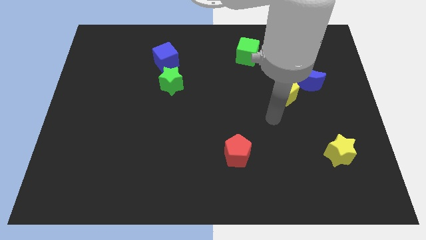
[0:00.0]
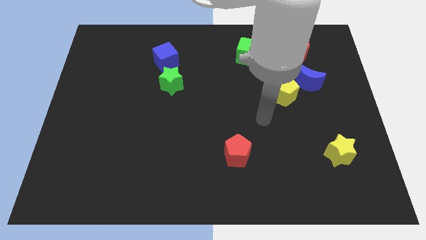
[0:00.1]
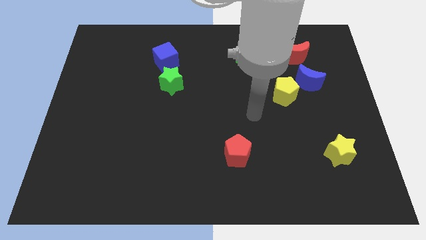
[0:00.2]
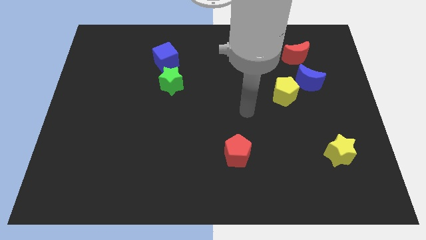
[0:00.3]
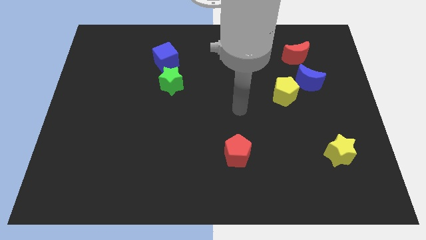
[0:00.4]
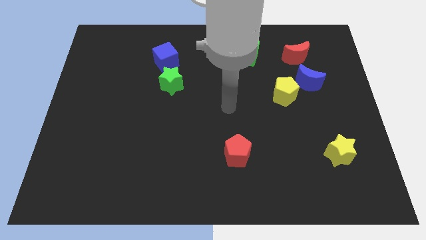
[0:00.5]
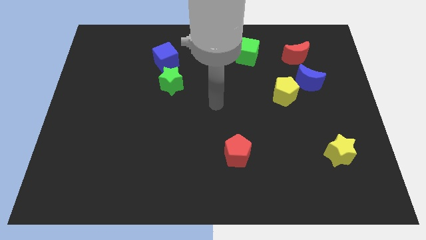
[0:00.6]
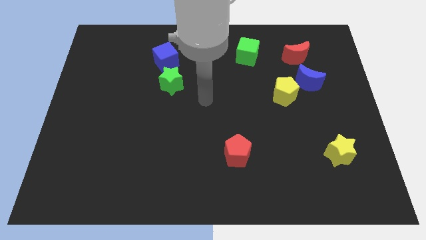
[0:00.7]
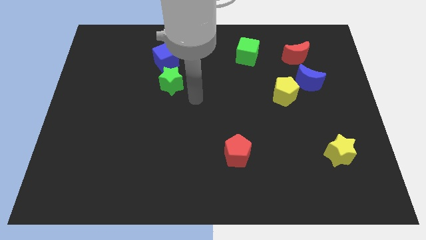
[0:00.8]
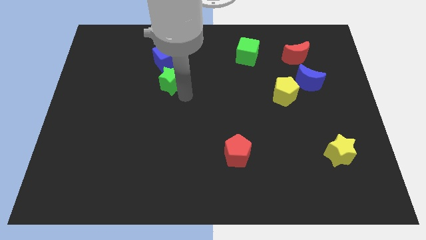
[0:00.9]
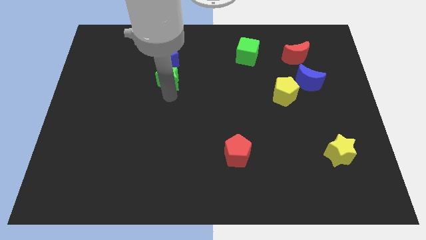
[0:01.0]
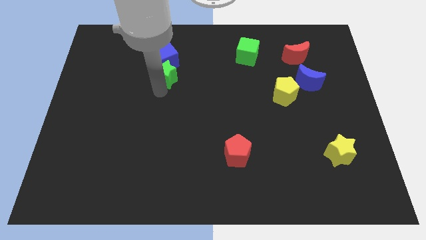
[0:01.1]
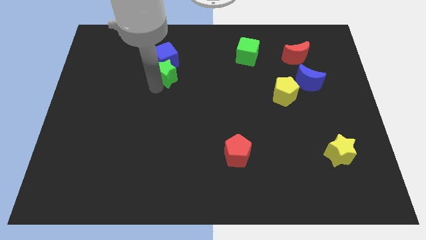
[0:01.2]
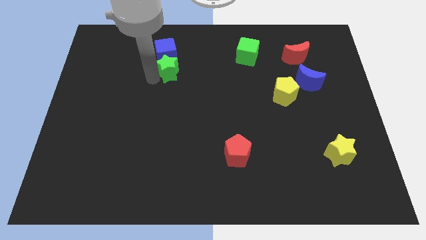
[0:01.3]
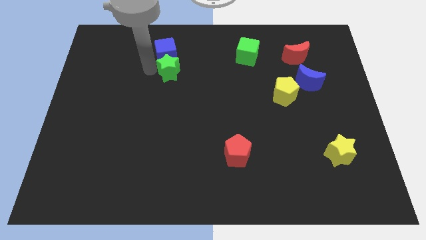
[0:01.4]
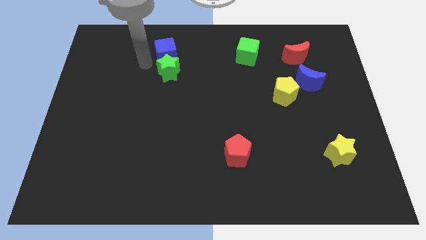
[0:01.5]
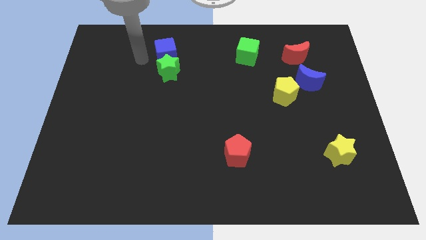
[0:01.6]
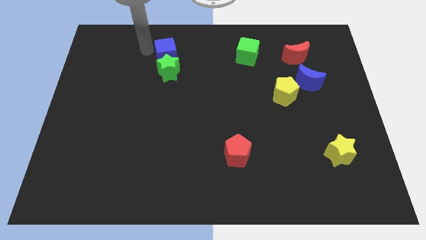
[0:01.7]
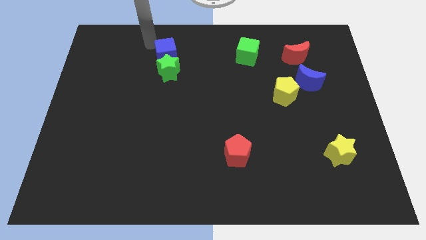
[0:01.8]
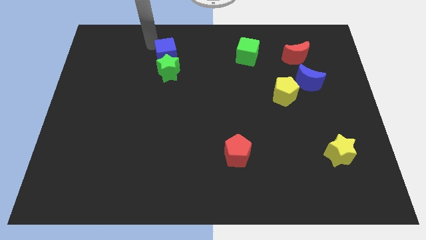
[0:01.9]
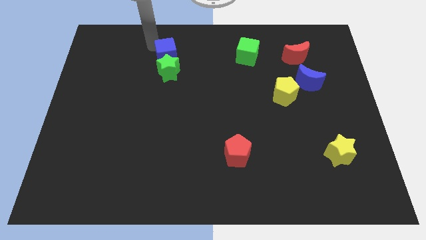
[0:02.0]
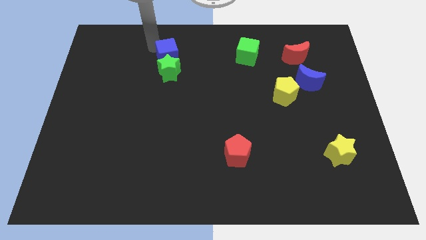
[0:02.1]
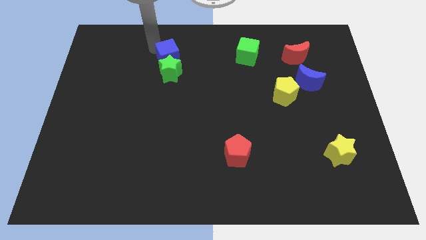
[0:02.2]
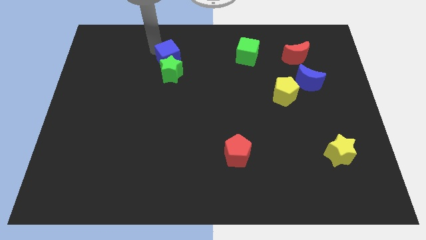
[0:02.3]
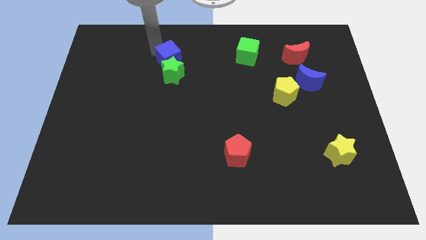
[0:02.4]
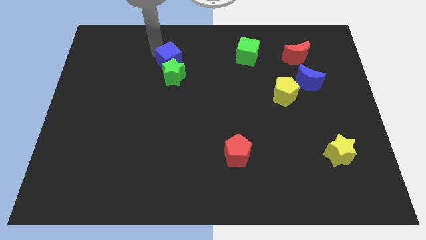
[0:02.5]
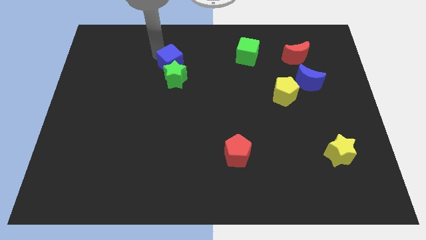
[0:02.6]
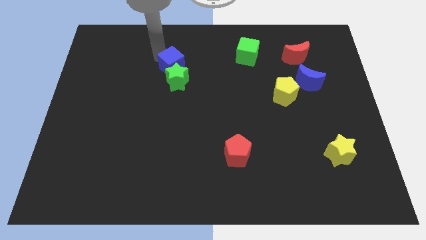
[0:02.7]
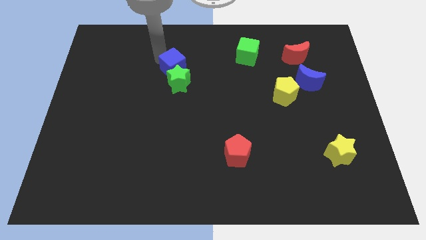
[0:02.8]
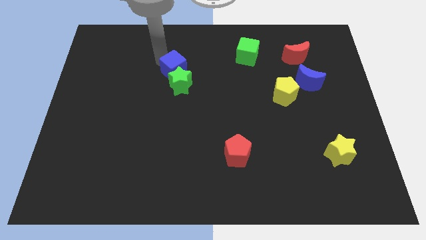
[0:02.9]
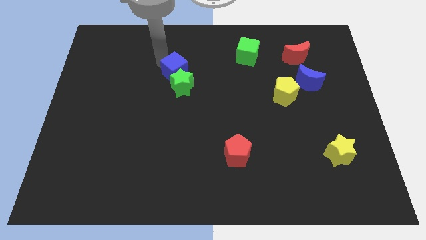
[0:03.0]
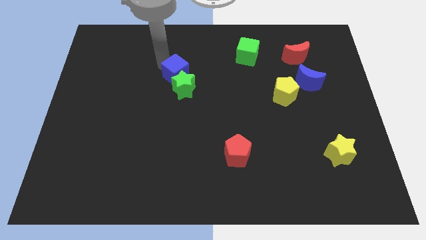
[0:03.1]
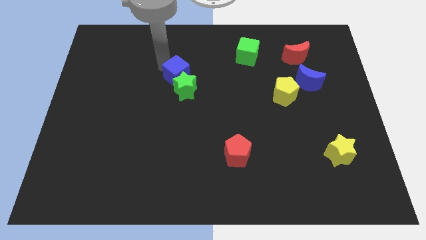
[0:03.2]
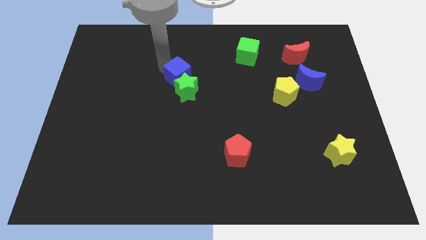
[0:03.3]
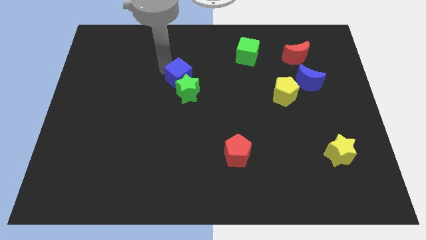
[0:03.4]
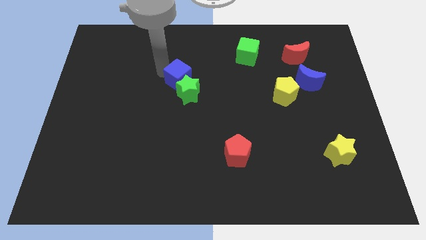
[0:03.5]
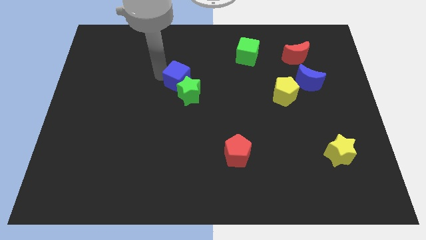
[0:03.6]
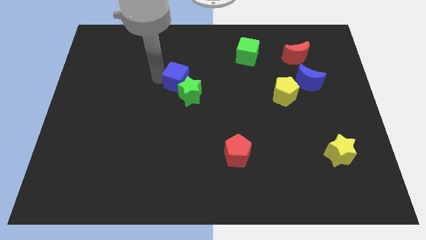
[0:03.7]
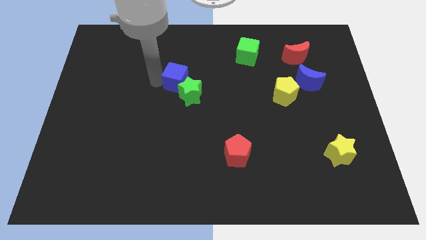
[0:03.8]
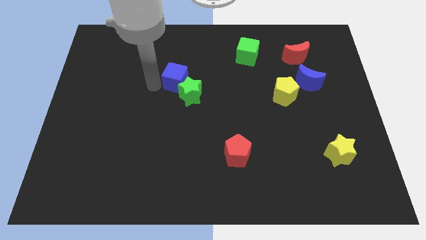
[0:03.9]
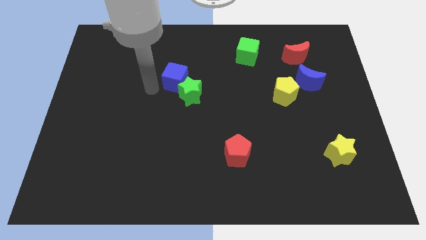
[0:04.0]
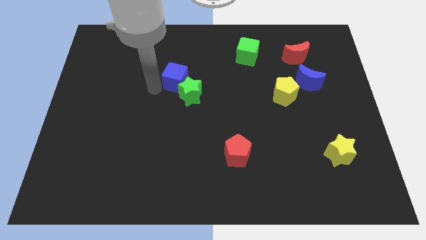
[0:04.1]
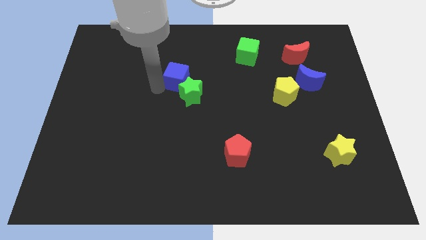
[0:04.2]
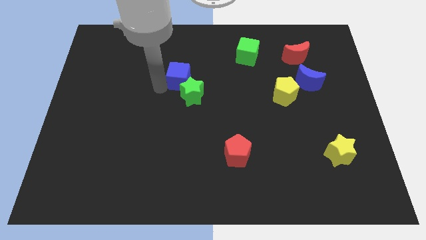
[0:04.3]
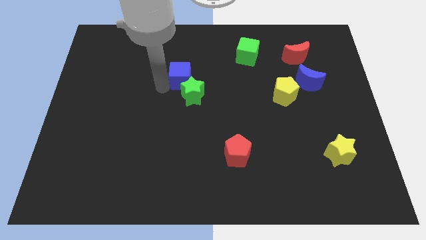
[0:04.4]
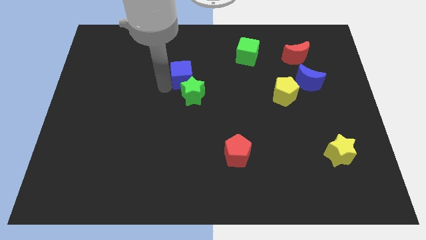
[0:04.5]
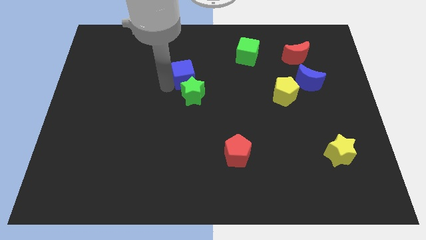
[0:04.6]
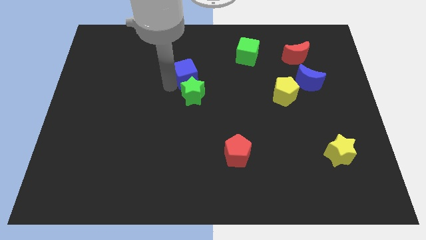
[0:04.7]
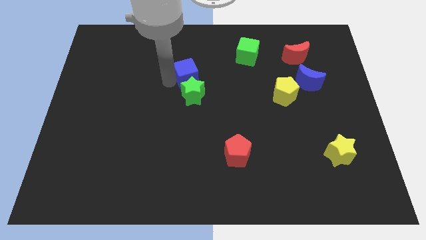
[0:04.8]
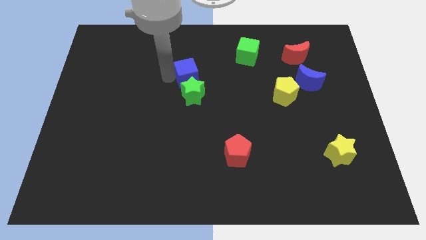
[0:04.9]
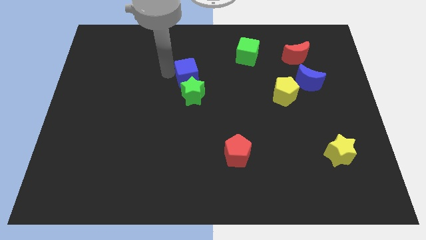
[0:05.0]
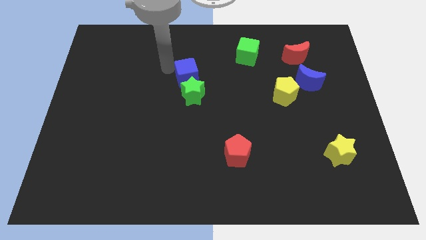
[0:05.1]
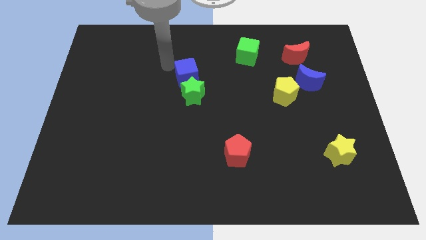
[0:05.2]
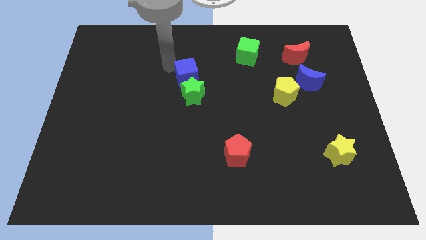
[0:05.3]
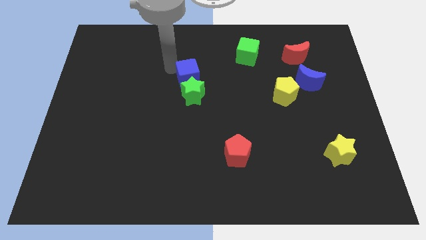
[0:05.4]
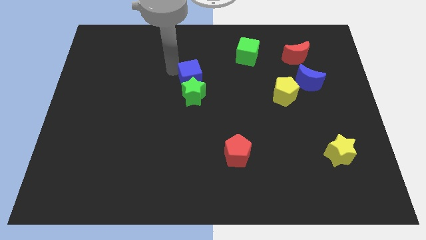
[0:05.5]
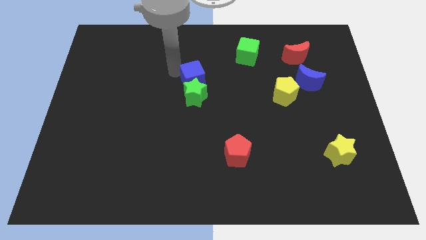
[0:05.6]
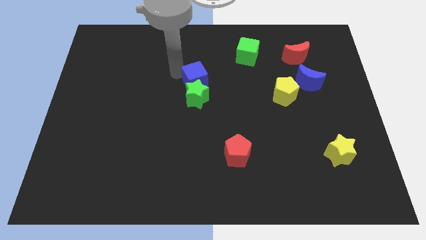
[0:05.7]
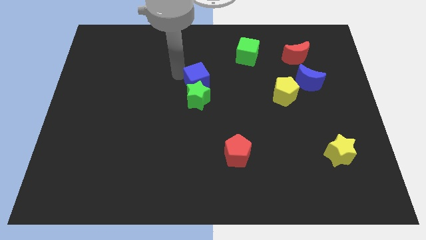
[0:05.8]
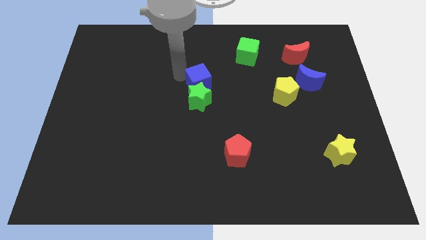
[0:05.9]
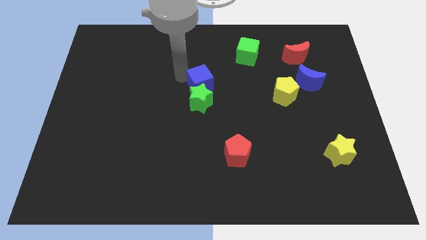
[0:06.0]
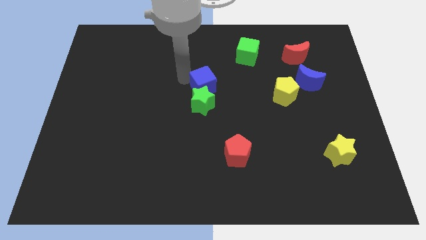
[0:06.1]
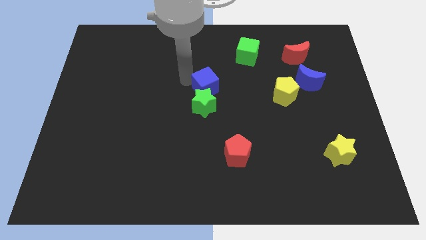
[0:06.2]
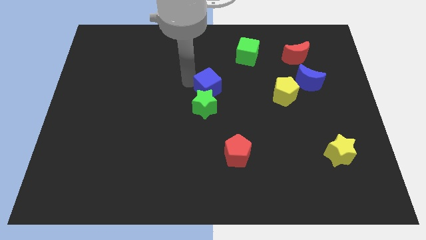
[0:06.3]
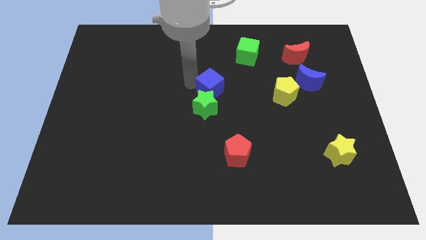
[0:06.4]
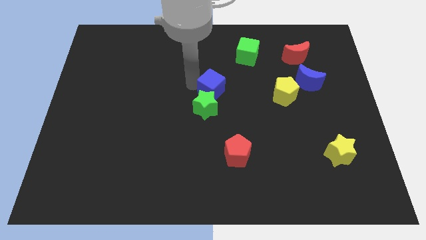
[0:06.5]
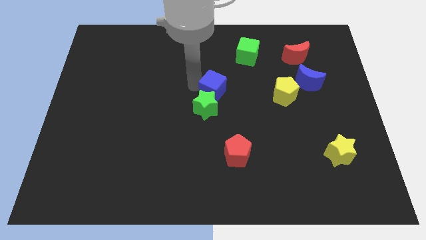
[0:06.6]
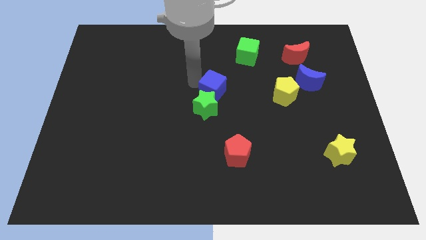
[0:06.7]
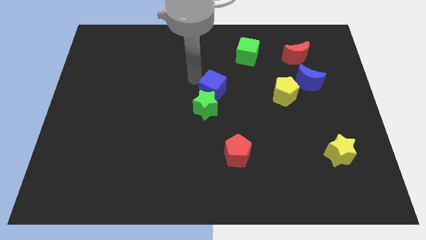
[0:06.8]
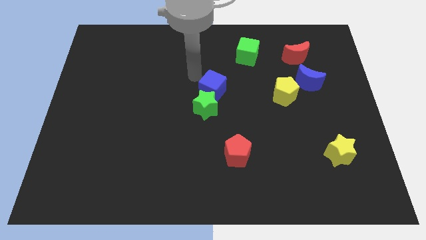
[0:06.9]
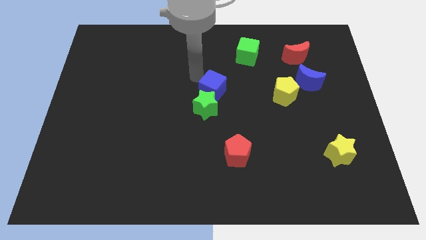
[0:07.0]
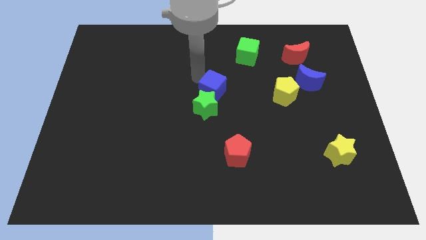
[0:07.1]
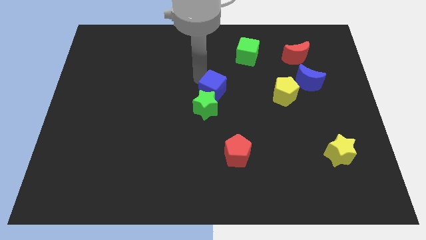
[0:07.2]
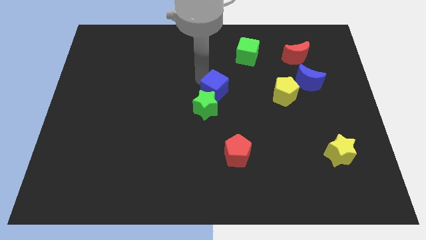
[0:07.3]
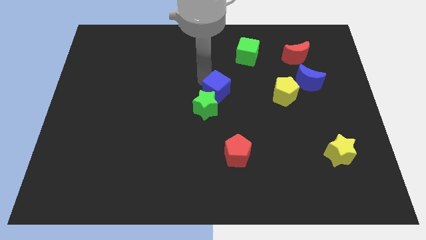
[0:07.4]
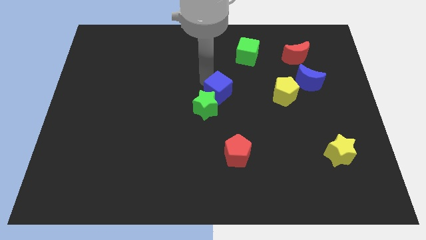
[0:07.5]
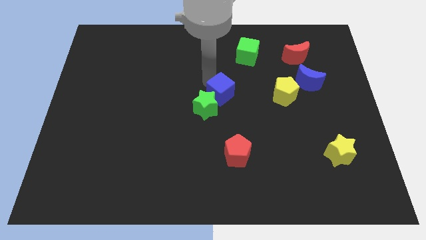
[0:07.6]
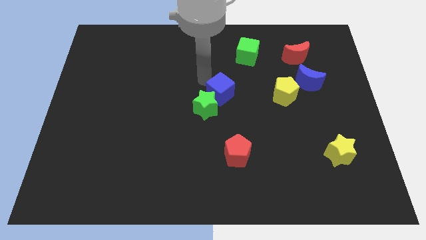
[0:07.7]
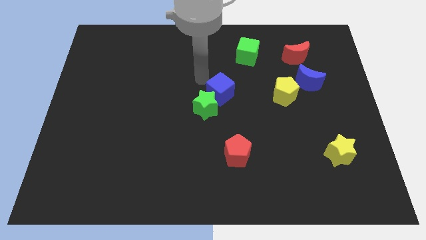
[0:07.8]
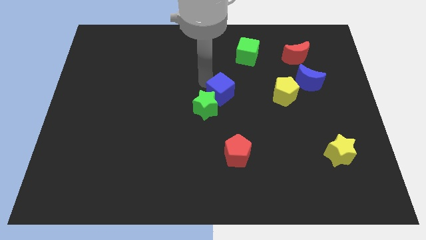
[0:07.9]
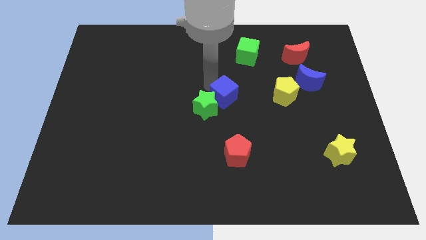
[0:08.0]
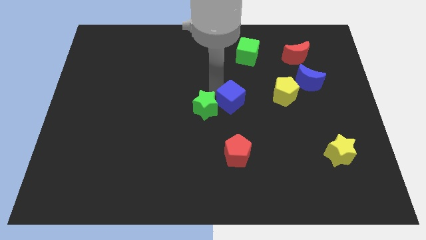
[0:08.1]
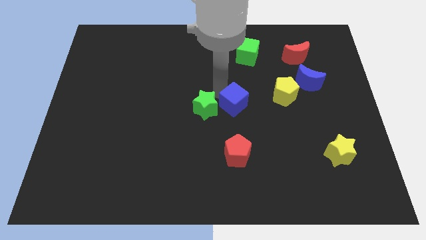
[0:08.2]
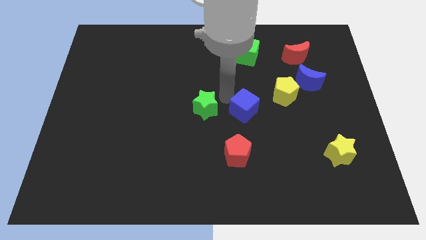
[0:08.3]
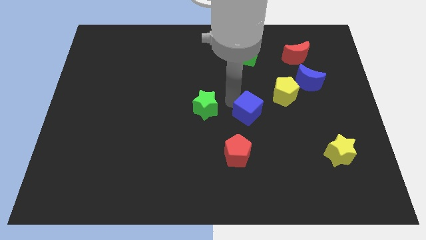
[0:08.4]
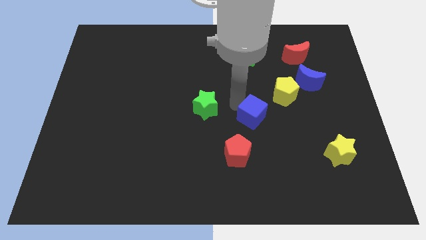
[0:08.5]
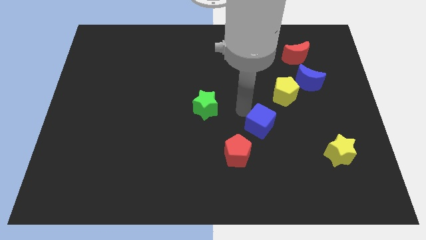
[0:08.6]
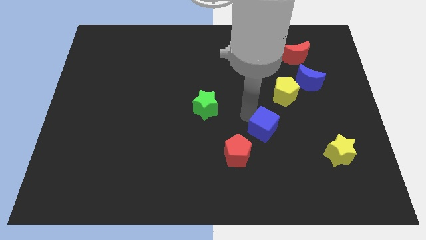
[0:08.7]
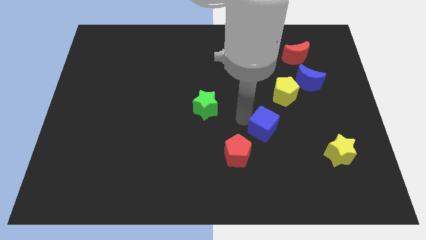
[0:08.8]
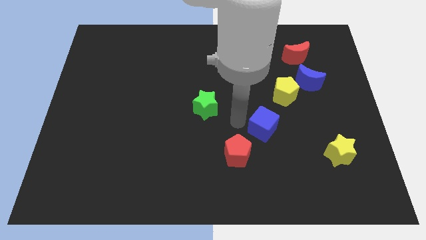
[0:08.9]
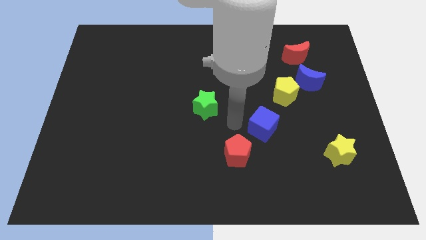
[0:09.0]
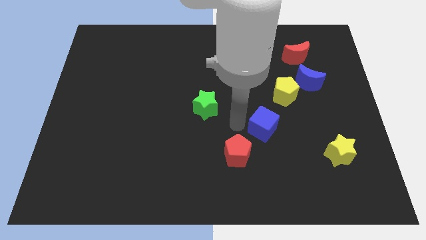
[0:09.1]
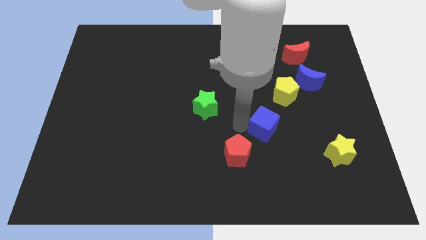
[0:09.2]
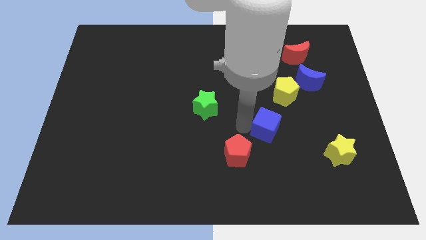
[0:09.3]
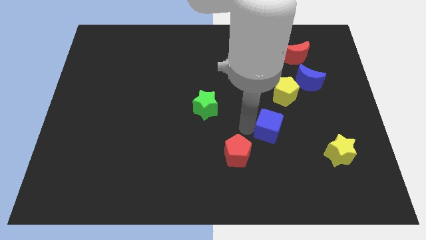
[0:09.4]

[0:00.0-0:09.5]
move the blue cube to the bottom of the yellow pentagon
